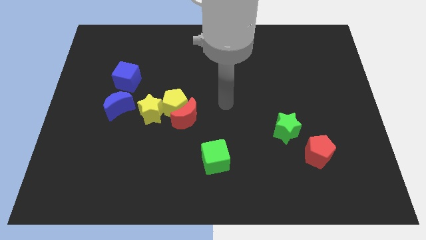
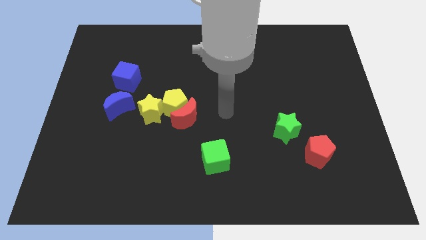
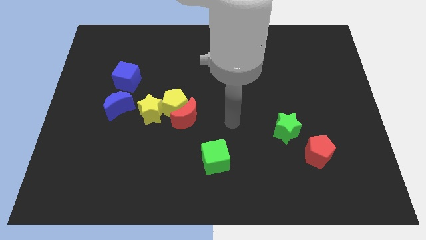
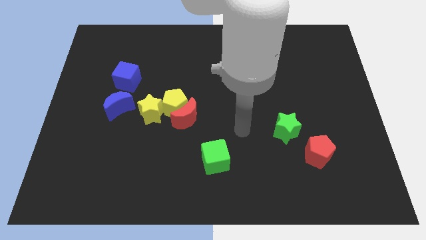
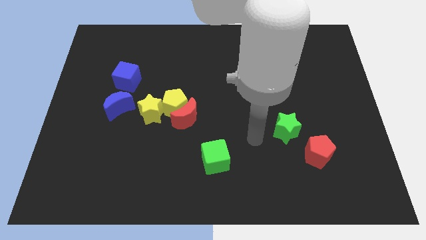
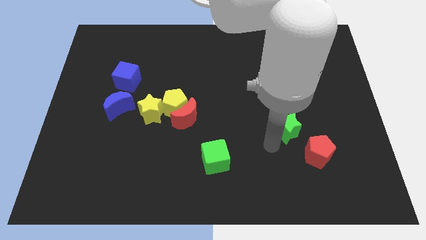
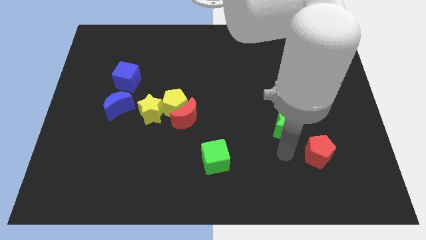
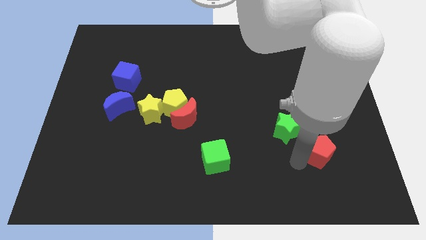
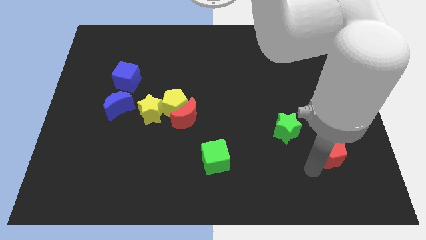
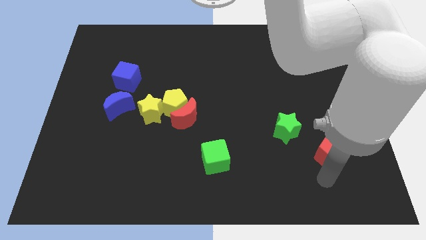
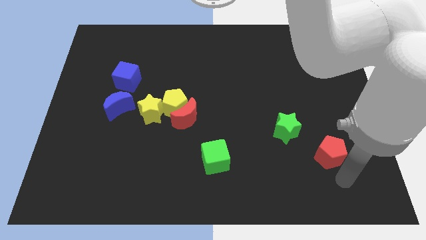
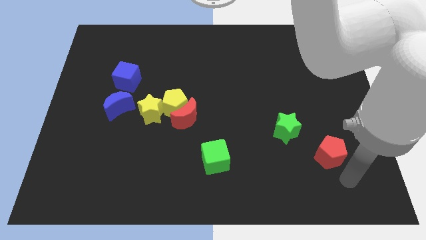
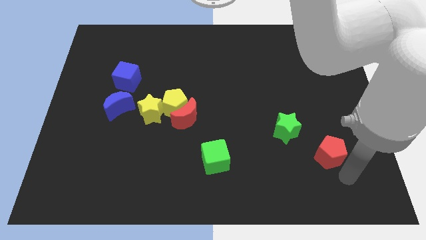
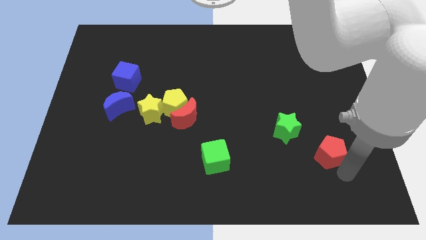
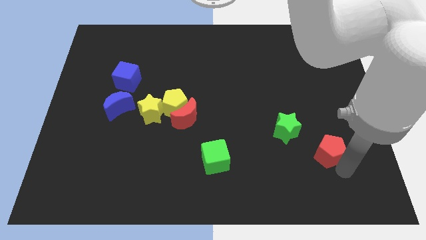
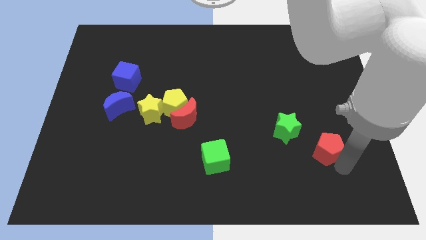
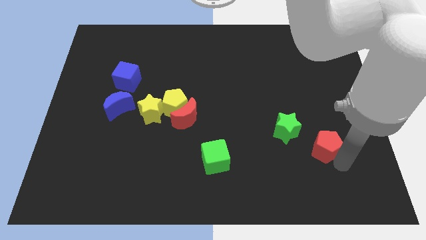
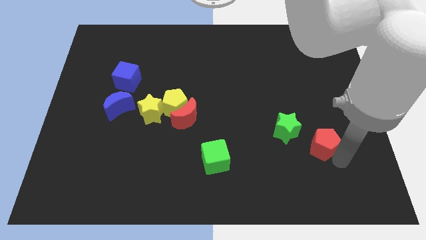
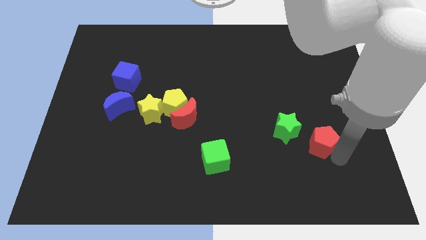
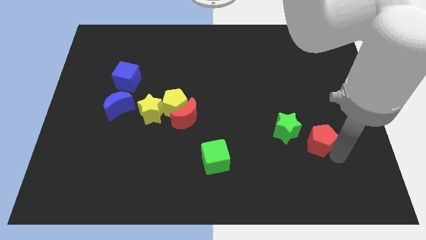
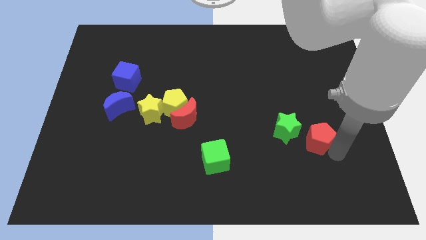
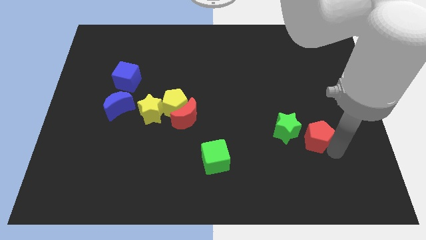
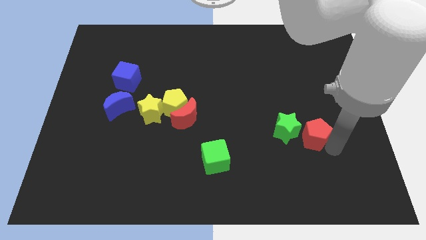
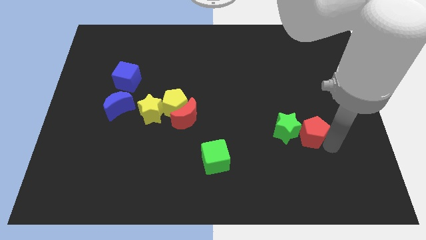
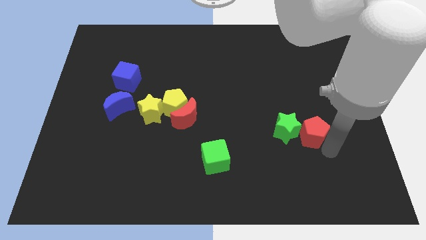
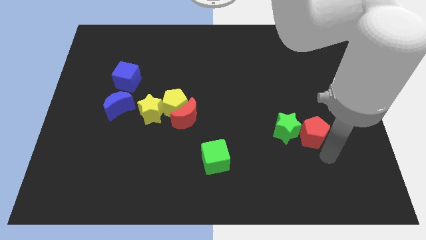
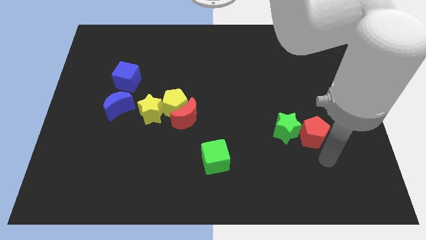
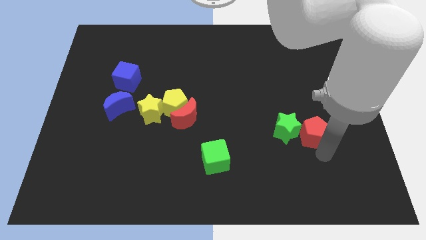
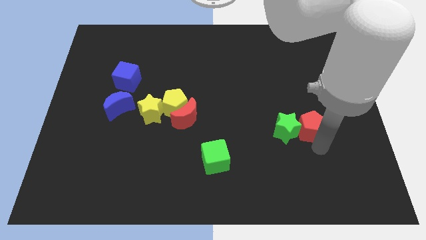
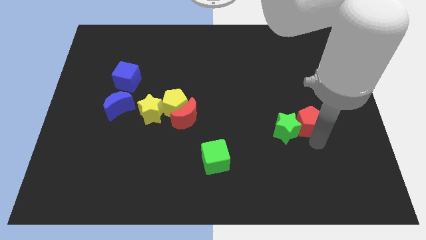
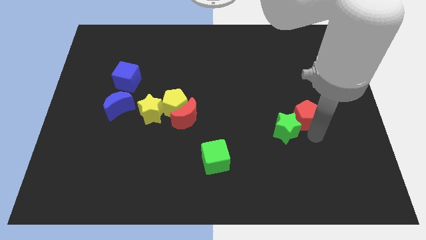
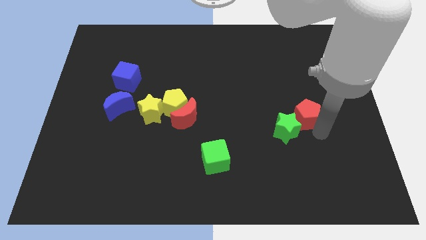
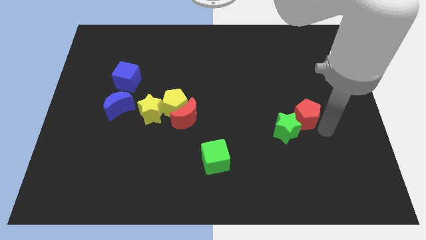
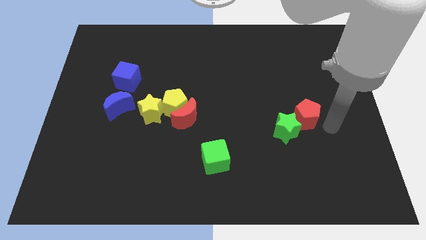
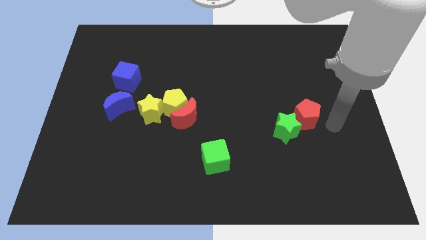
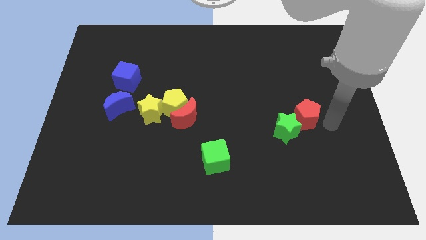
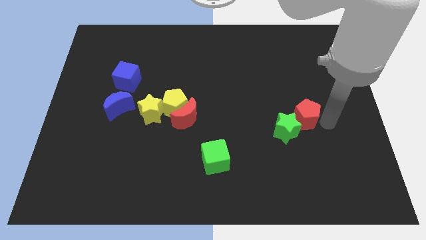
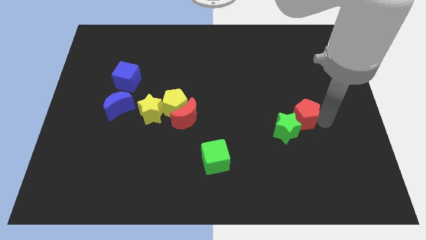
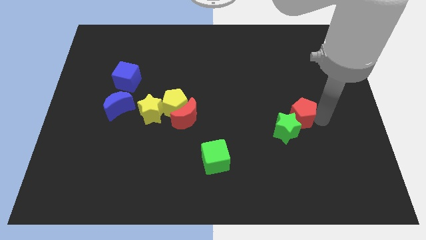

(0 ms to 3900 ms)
slightly move the red pentagon upwards and then left

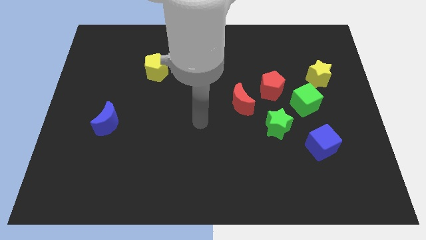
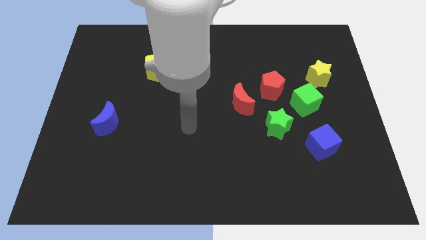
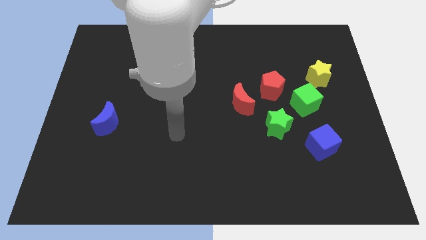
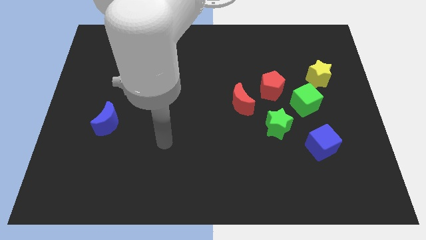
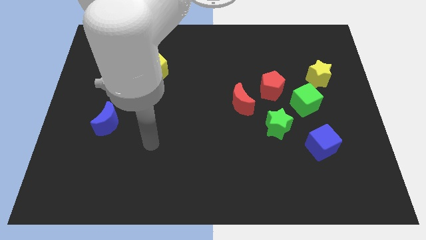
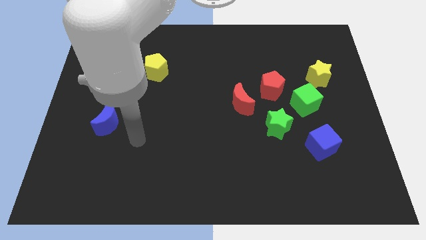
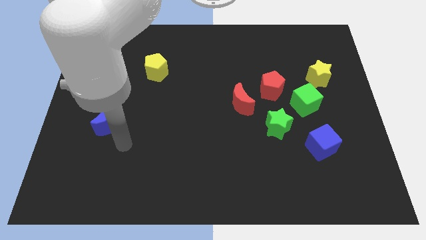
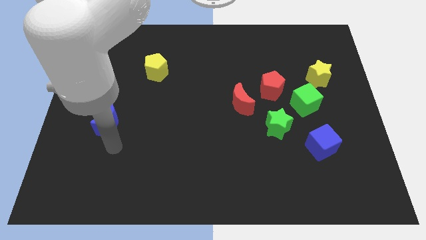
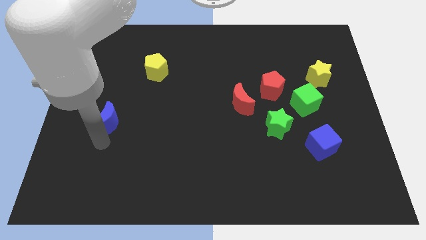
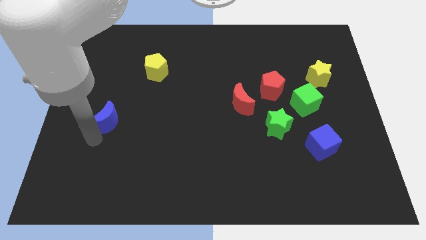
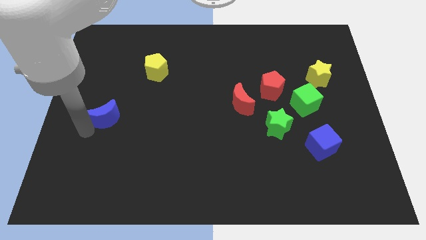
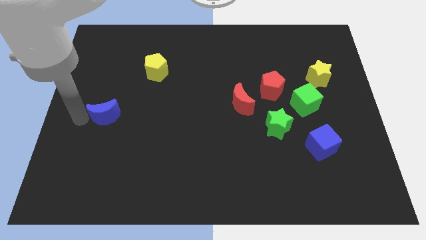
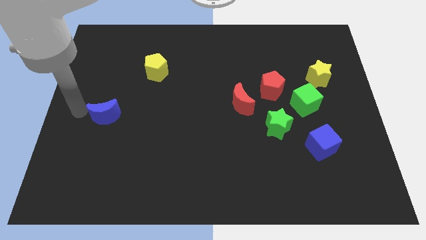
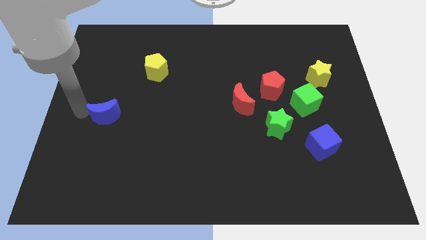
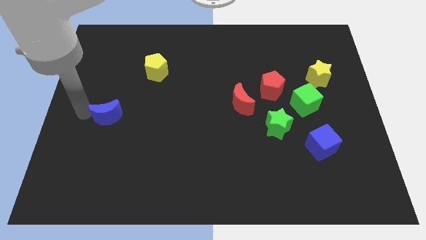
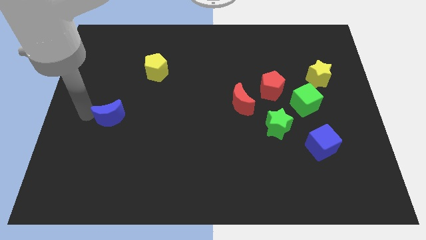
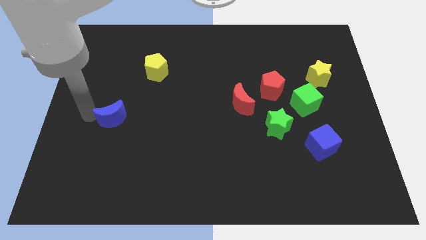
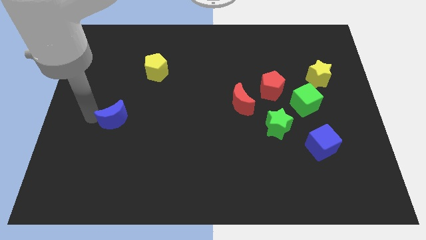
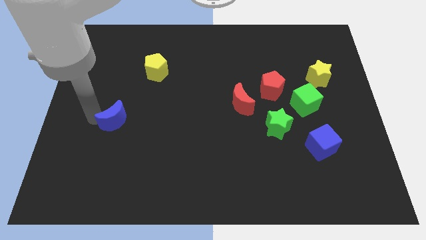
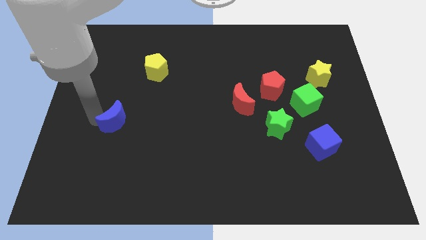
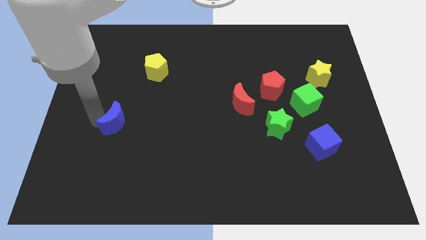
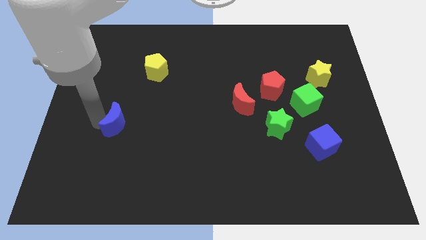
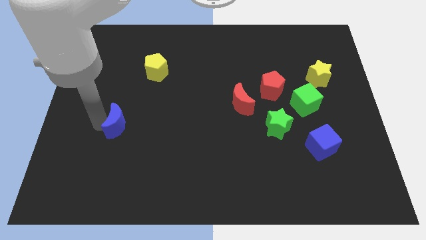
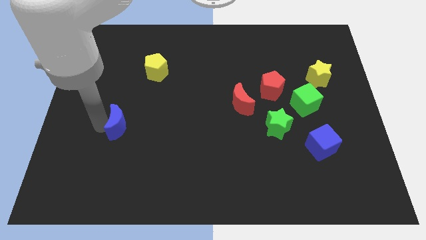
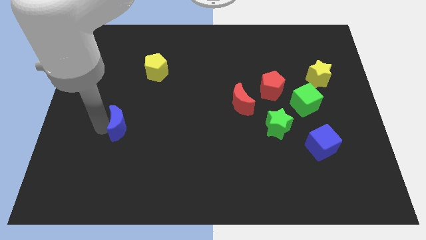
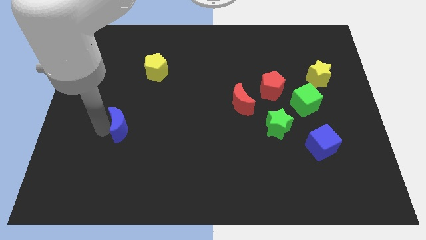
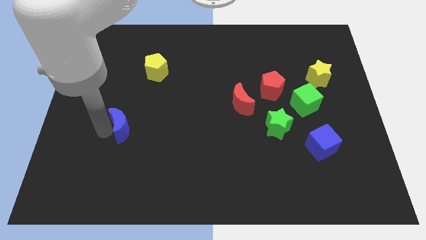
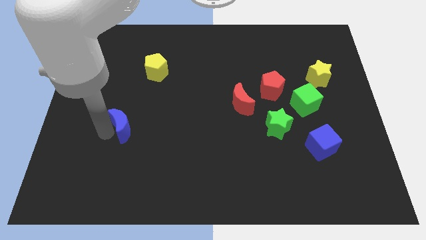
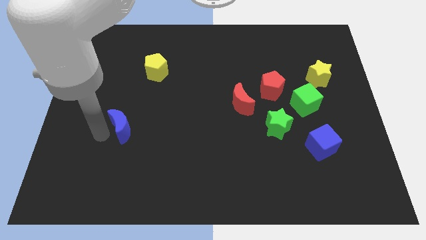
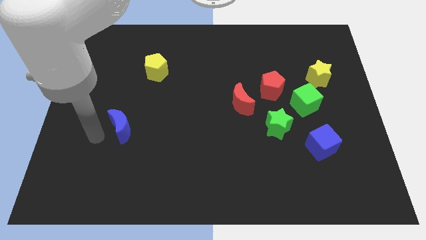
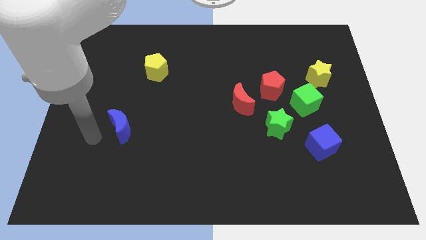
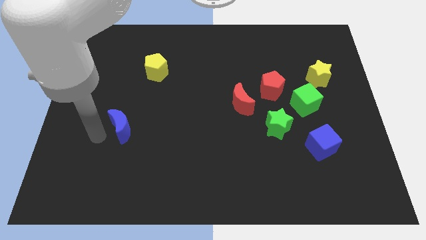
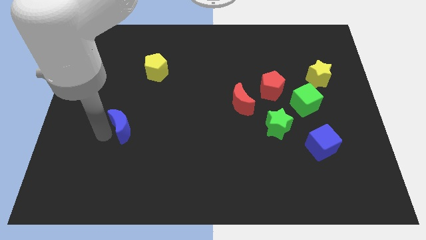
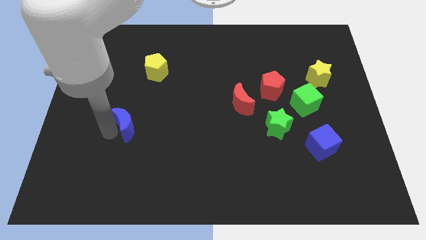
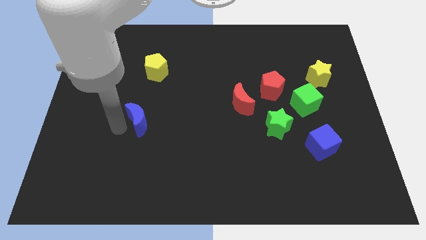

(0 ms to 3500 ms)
slide the blue moon a little bit to the right

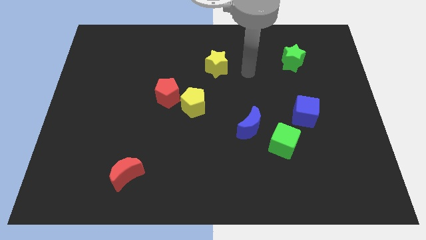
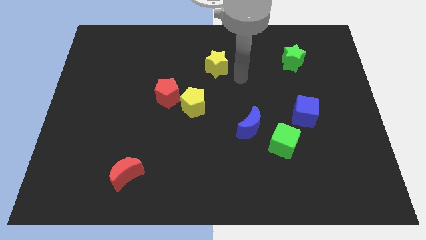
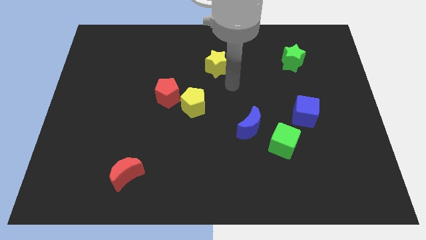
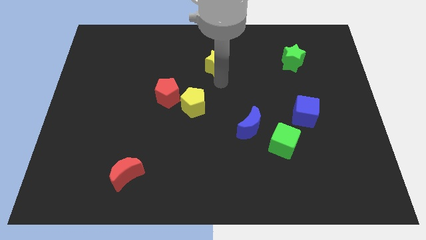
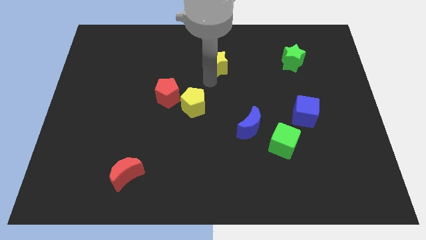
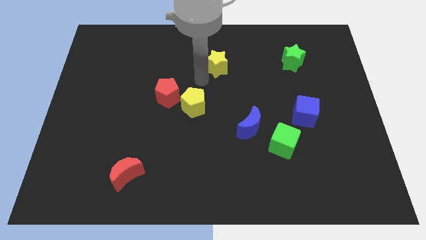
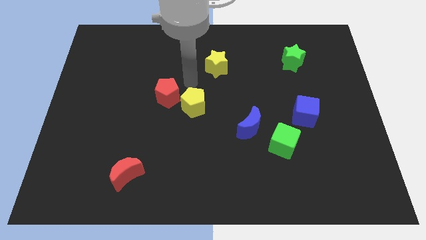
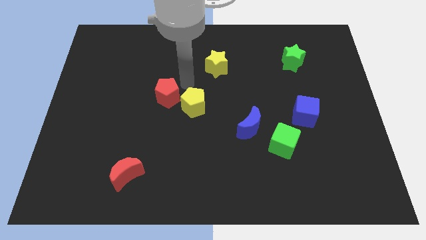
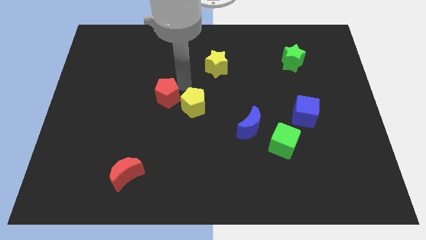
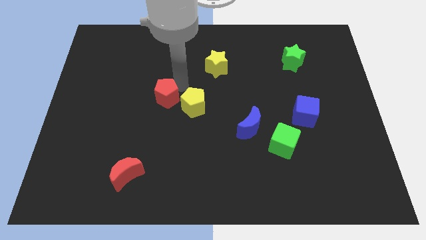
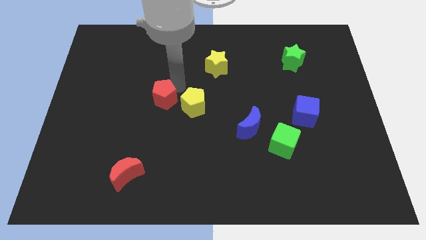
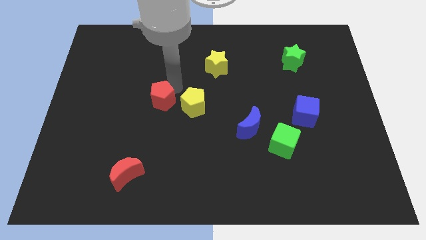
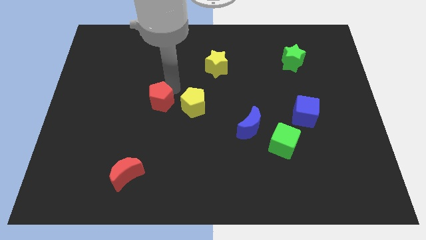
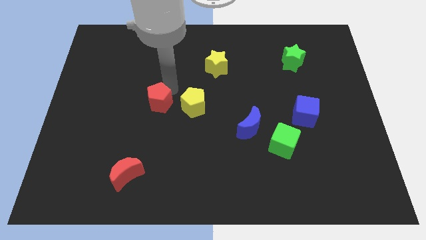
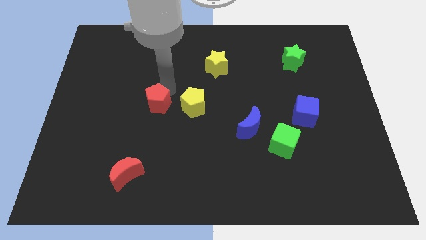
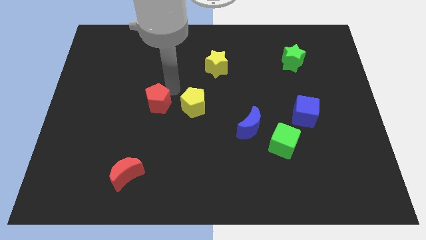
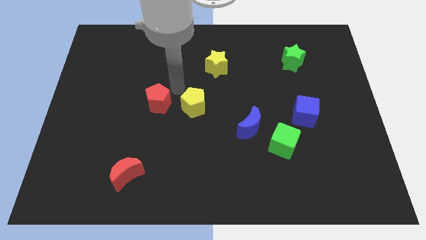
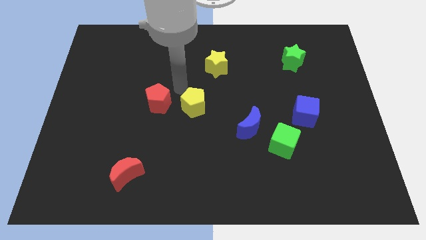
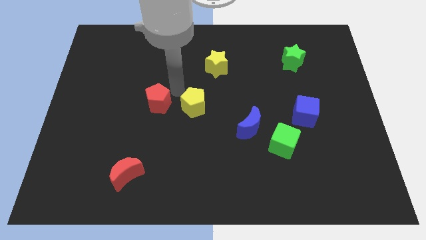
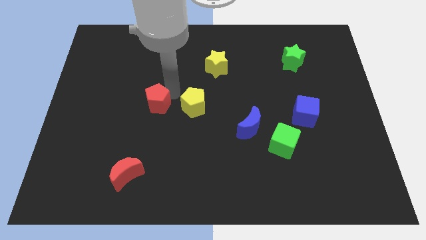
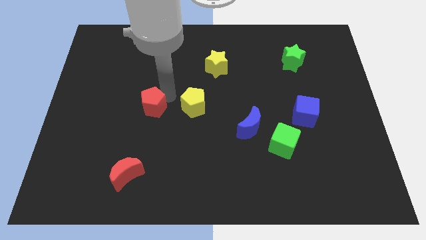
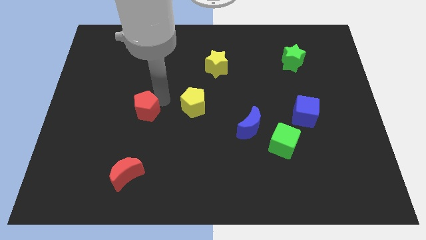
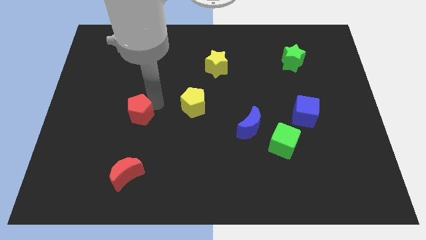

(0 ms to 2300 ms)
push the red pentagon somewhat down and then to the left
